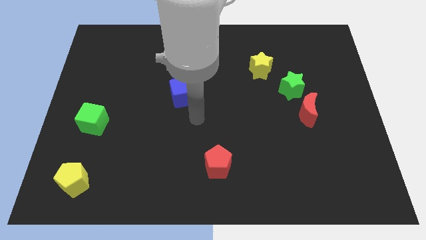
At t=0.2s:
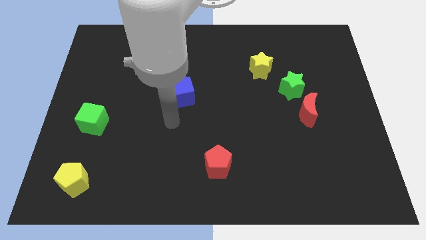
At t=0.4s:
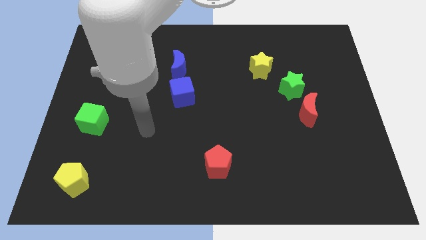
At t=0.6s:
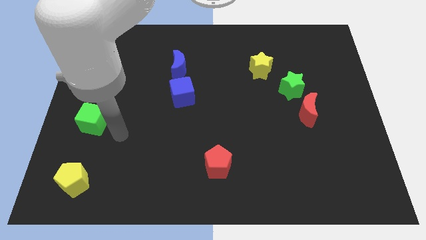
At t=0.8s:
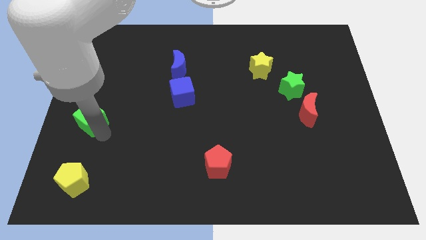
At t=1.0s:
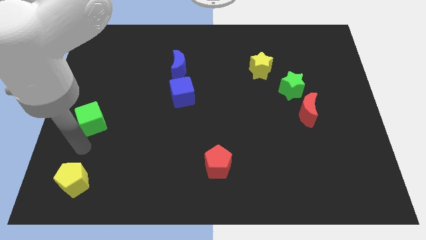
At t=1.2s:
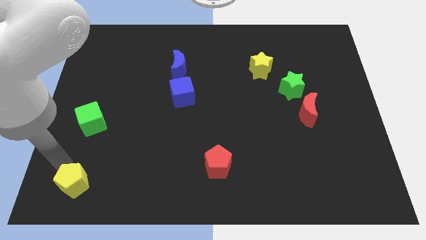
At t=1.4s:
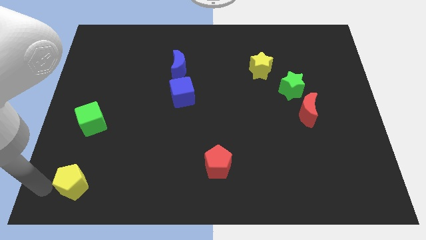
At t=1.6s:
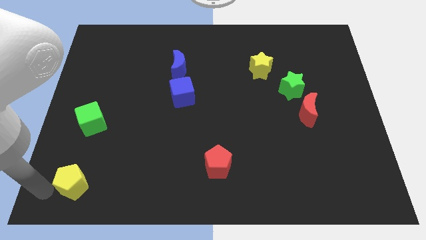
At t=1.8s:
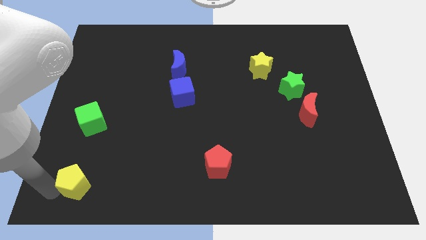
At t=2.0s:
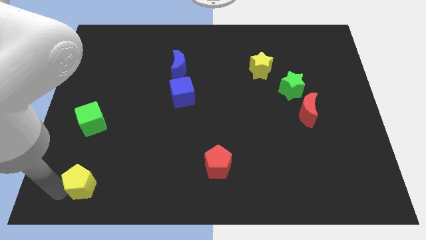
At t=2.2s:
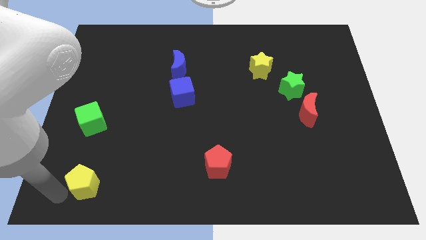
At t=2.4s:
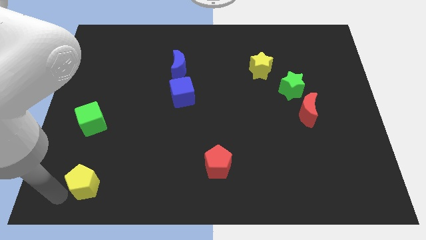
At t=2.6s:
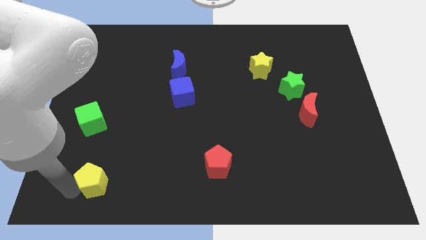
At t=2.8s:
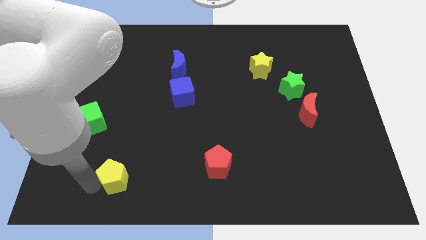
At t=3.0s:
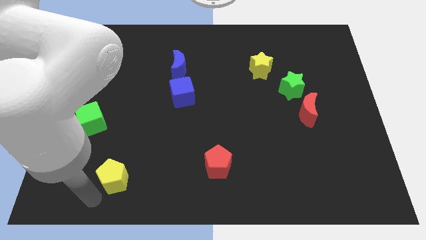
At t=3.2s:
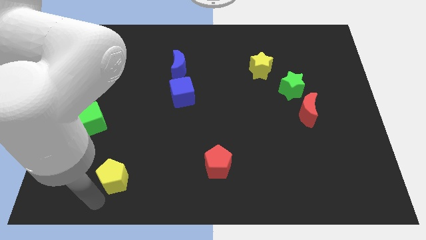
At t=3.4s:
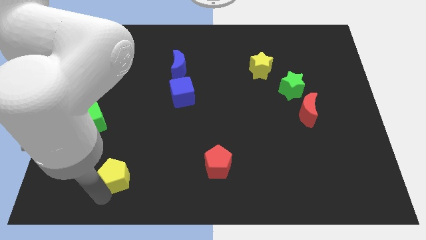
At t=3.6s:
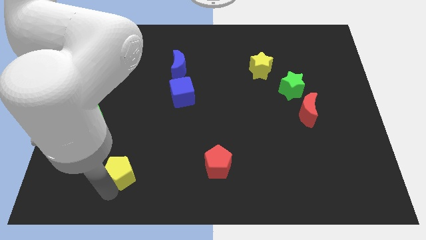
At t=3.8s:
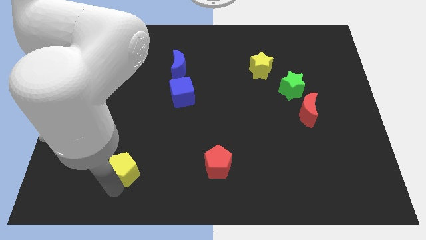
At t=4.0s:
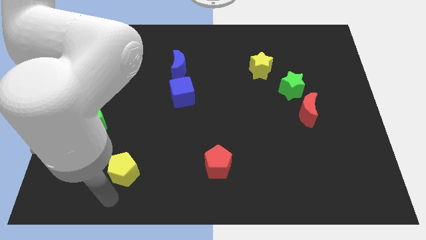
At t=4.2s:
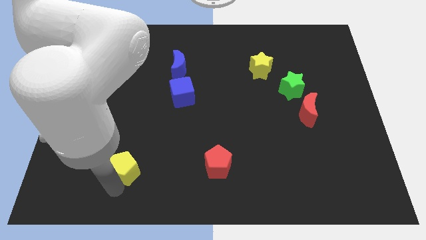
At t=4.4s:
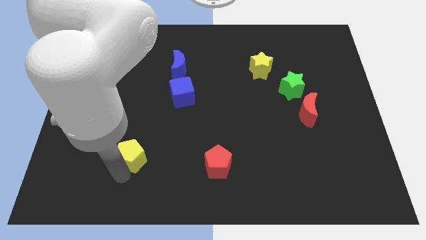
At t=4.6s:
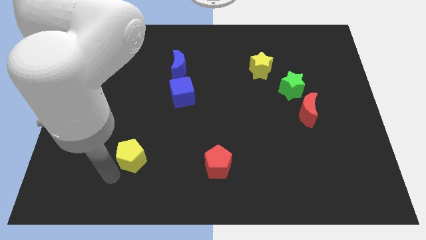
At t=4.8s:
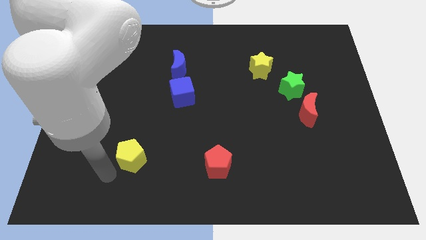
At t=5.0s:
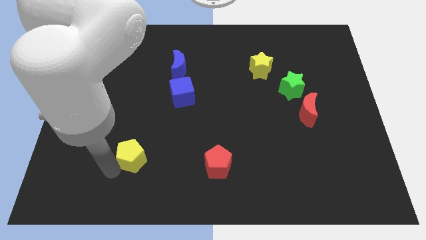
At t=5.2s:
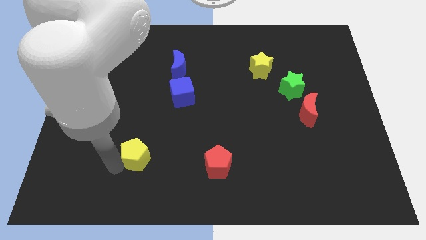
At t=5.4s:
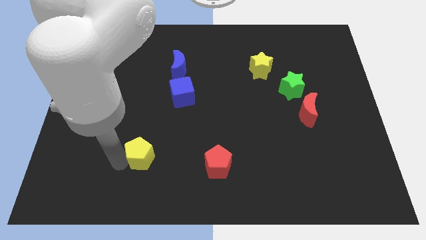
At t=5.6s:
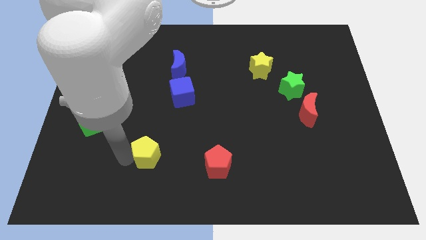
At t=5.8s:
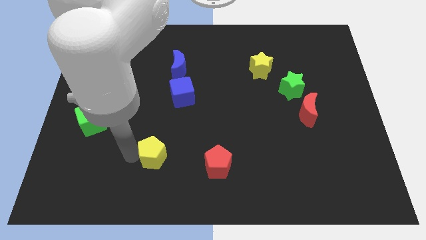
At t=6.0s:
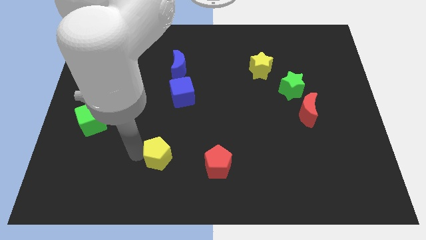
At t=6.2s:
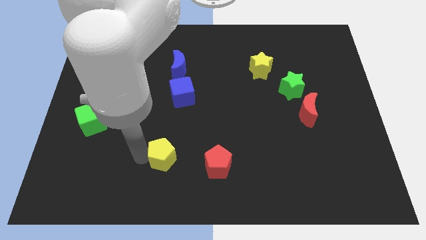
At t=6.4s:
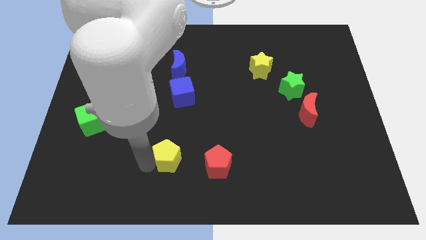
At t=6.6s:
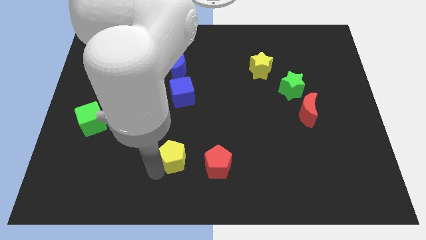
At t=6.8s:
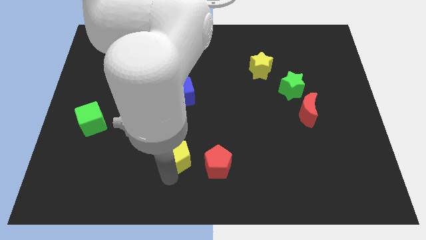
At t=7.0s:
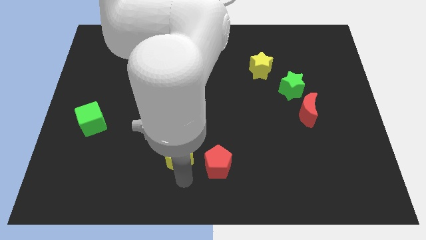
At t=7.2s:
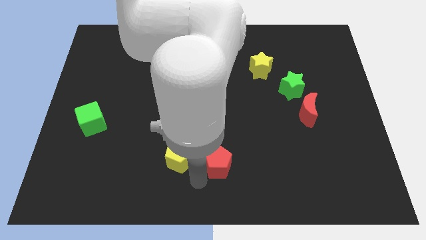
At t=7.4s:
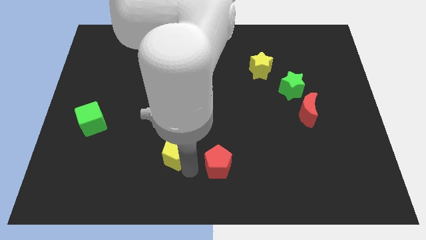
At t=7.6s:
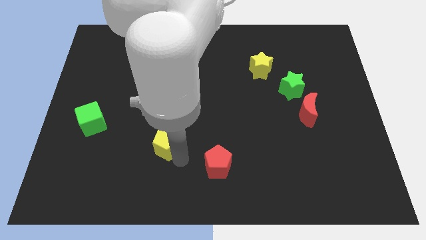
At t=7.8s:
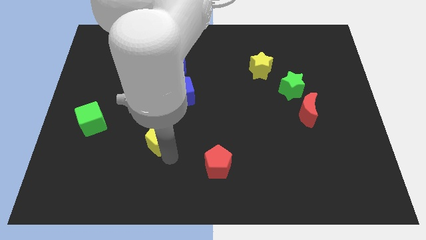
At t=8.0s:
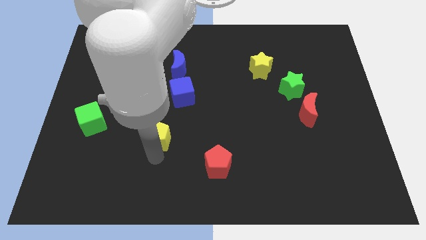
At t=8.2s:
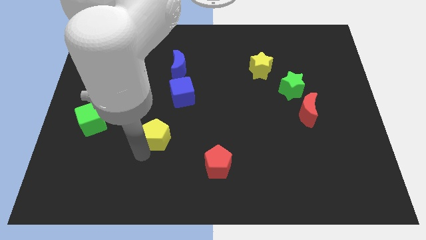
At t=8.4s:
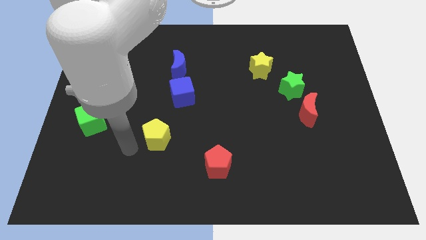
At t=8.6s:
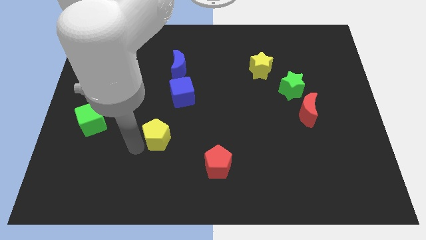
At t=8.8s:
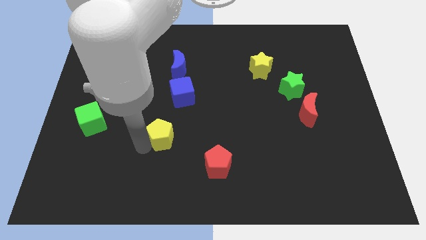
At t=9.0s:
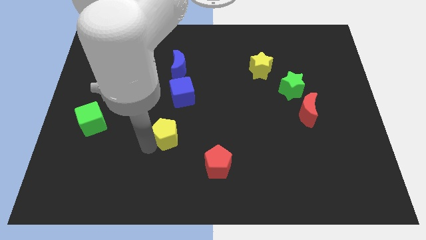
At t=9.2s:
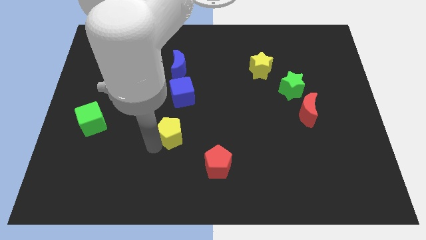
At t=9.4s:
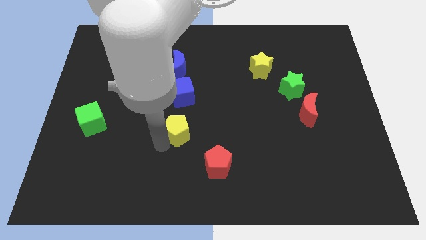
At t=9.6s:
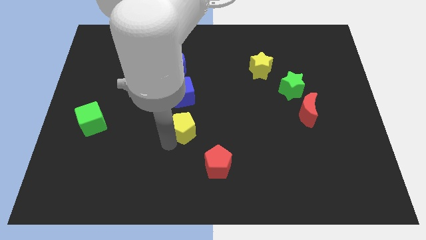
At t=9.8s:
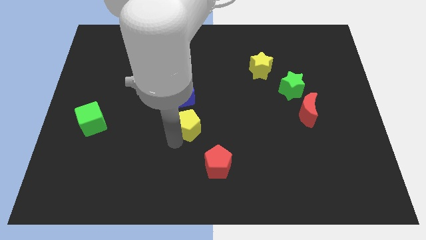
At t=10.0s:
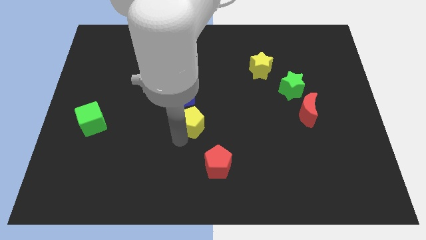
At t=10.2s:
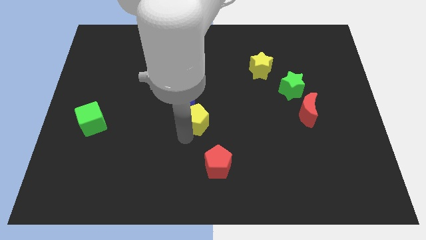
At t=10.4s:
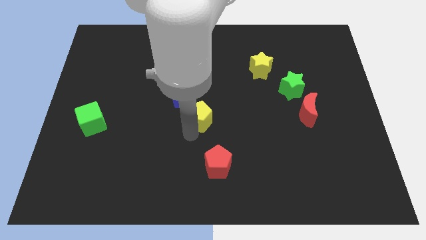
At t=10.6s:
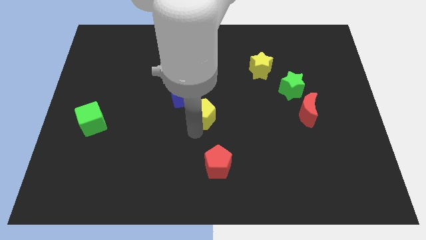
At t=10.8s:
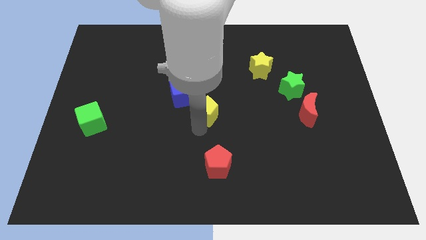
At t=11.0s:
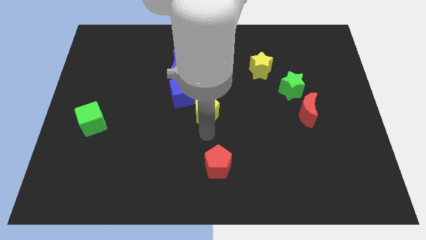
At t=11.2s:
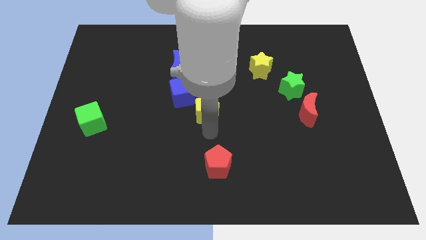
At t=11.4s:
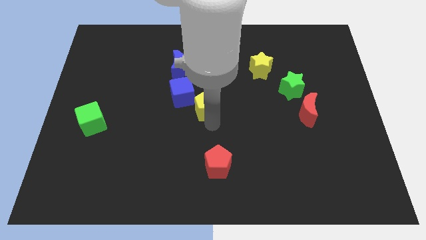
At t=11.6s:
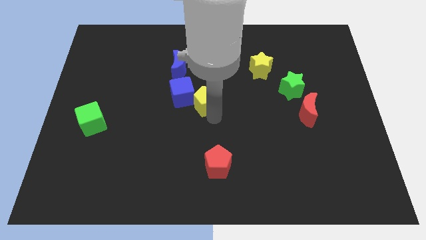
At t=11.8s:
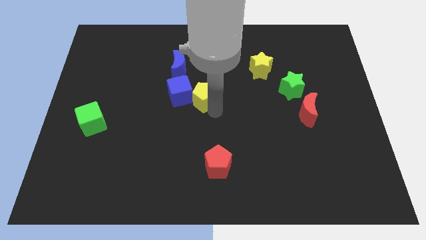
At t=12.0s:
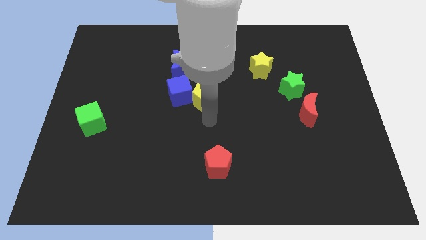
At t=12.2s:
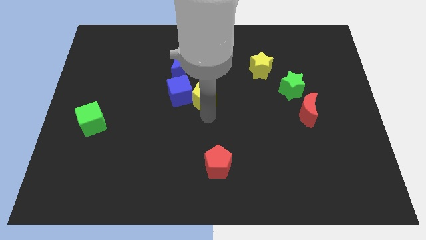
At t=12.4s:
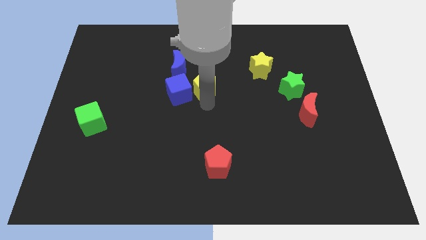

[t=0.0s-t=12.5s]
slide the yellow pentagon to the top right side of the blue cube

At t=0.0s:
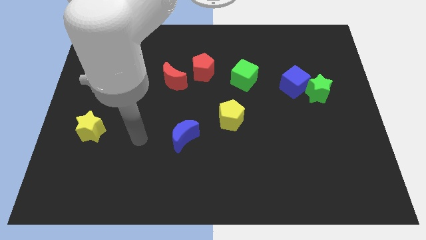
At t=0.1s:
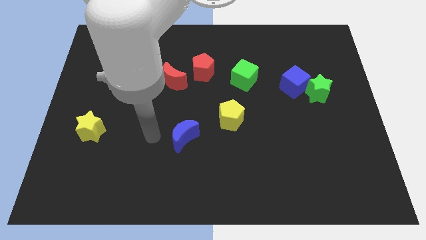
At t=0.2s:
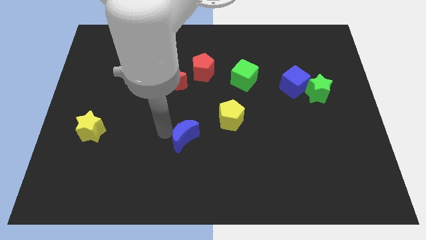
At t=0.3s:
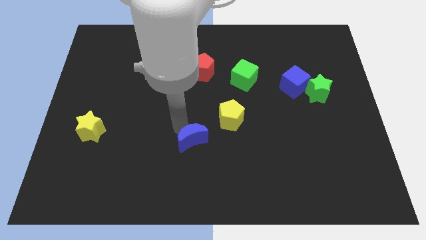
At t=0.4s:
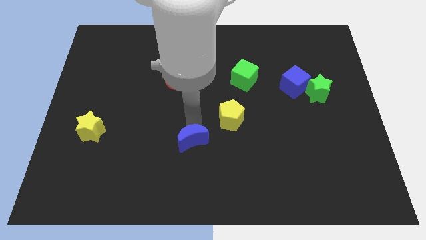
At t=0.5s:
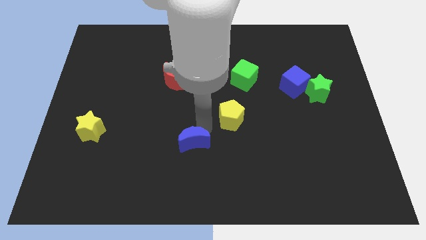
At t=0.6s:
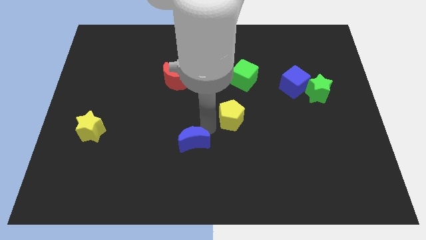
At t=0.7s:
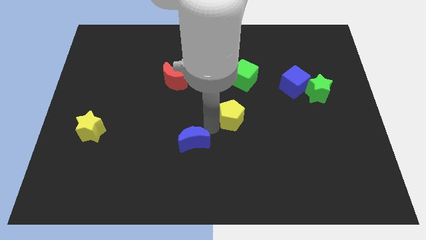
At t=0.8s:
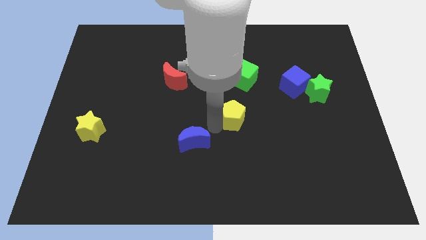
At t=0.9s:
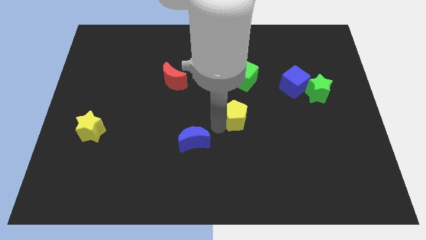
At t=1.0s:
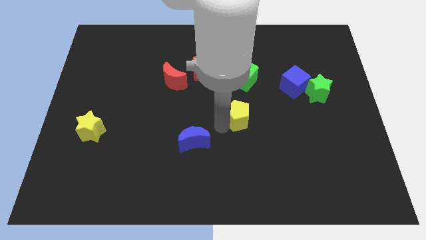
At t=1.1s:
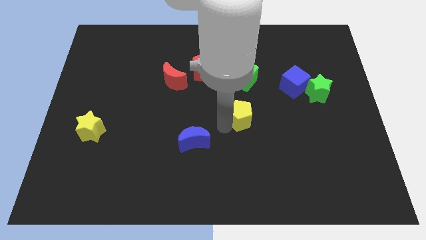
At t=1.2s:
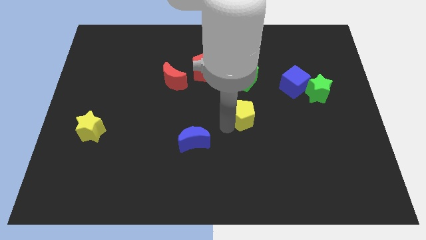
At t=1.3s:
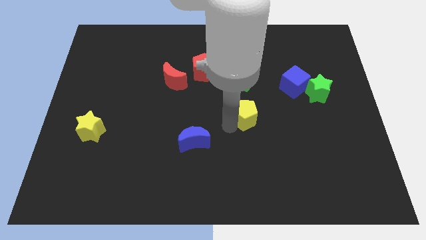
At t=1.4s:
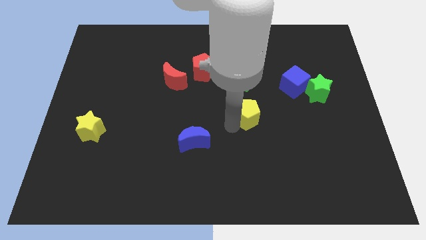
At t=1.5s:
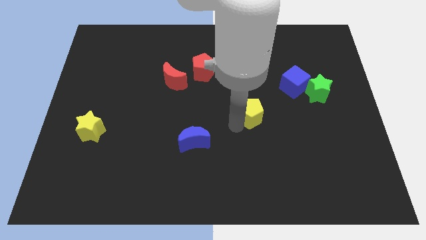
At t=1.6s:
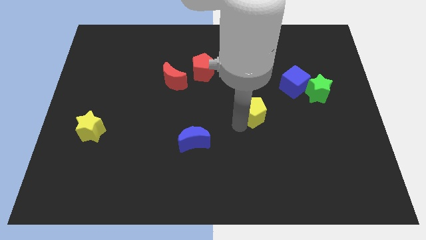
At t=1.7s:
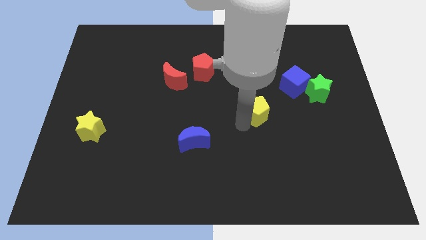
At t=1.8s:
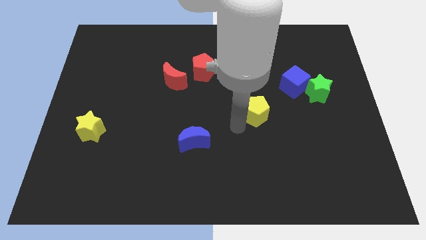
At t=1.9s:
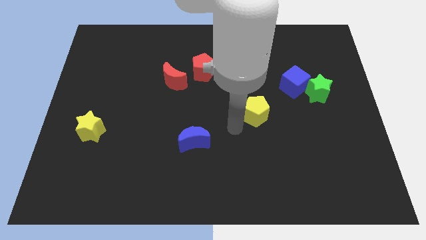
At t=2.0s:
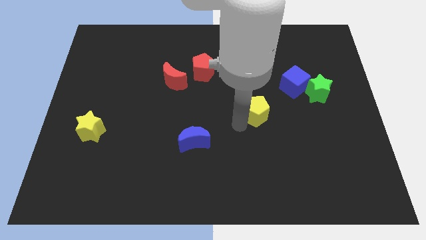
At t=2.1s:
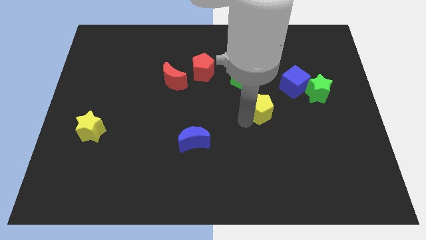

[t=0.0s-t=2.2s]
push the yellow pentagon to the bottom left side of the blue cube
